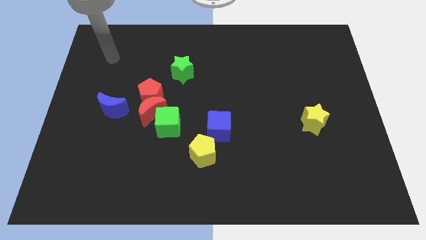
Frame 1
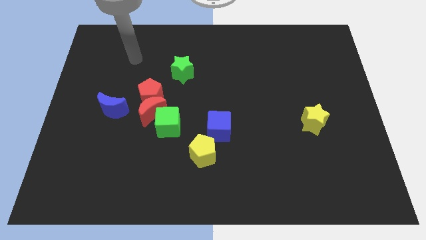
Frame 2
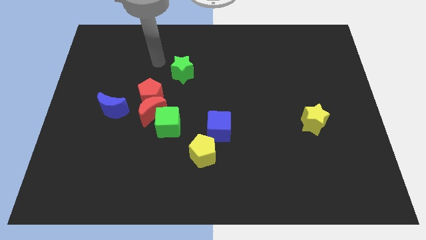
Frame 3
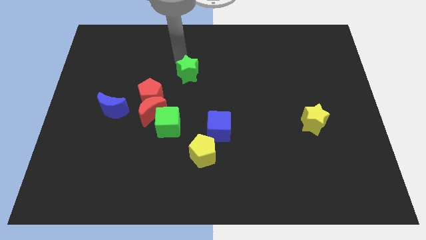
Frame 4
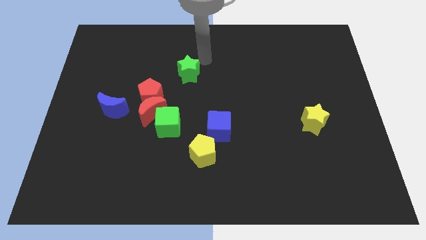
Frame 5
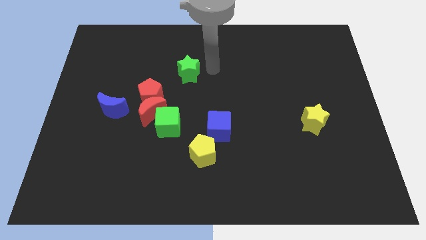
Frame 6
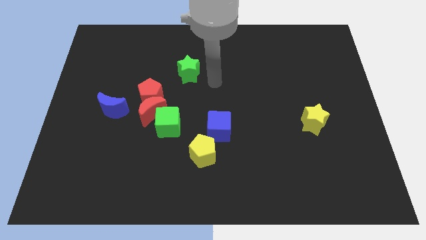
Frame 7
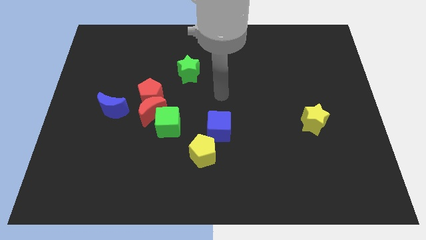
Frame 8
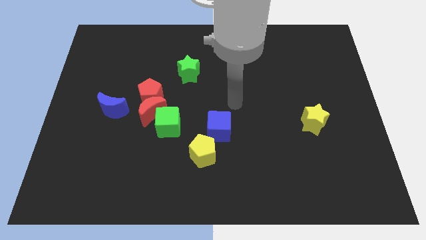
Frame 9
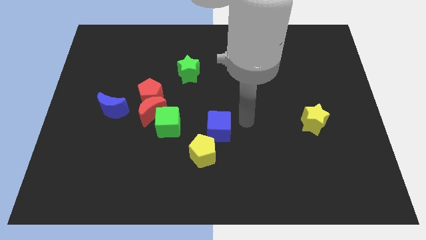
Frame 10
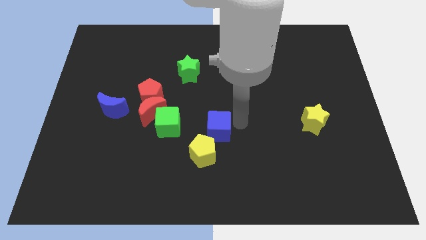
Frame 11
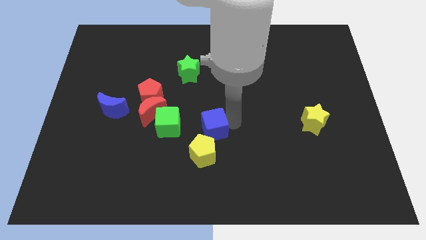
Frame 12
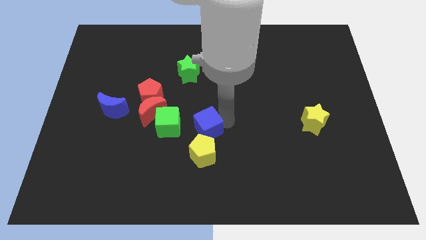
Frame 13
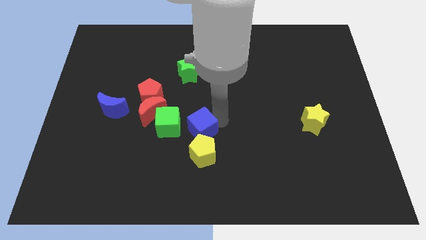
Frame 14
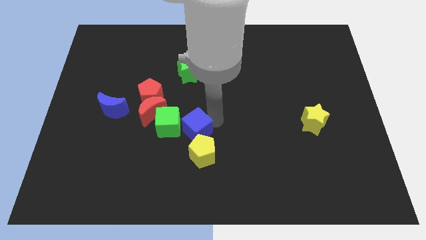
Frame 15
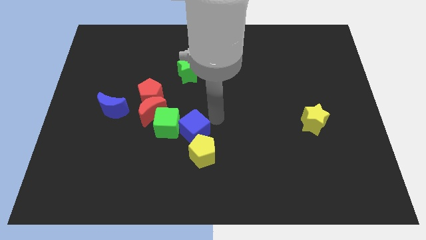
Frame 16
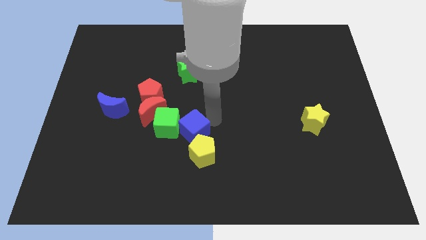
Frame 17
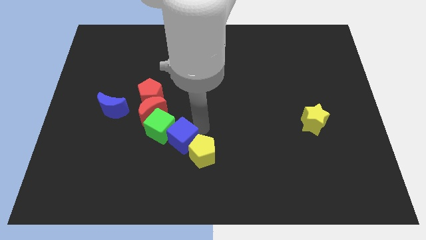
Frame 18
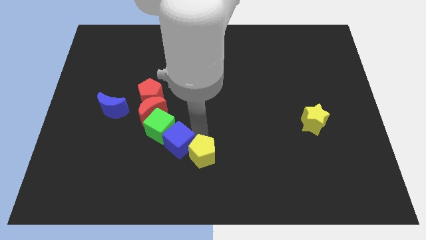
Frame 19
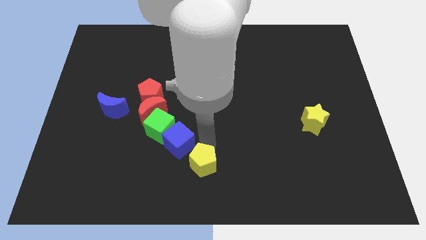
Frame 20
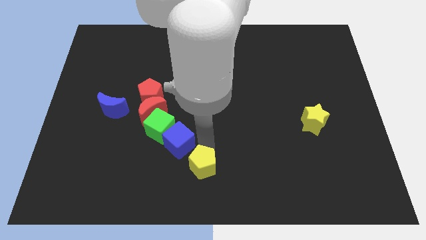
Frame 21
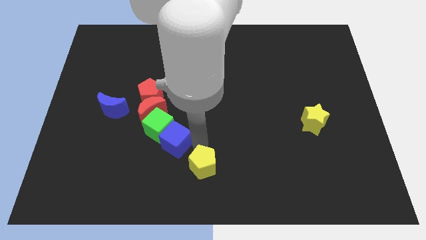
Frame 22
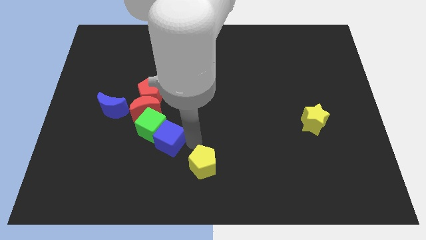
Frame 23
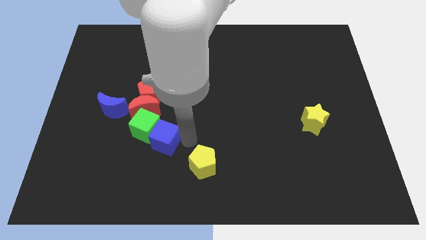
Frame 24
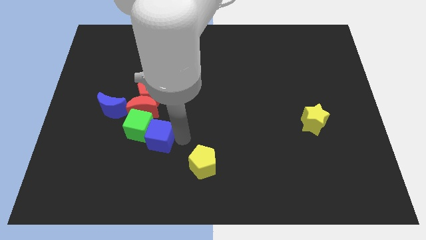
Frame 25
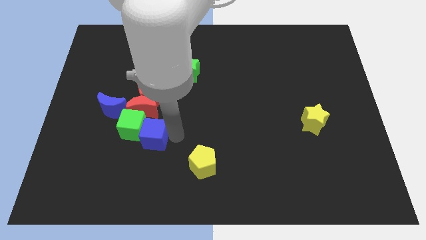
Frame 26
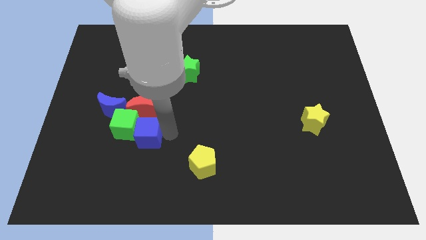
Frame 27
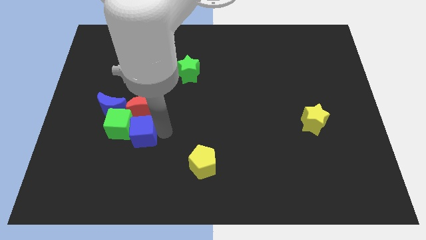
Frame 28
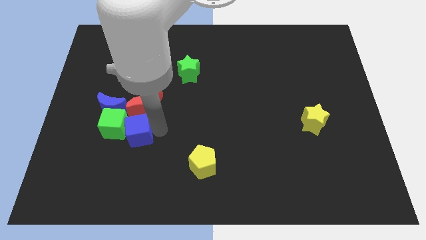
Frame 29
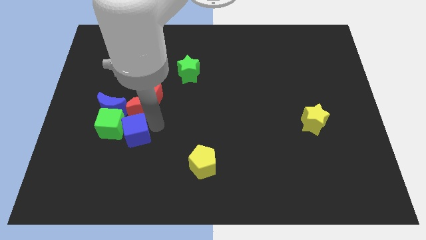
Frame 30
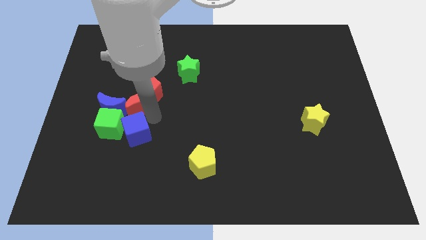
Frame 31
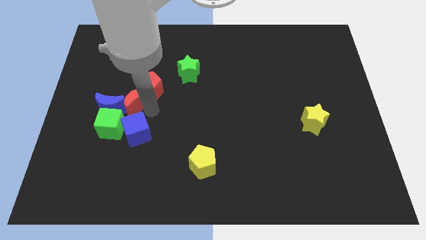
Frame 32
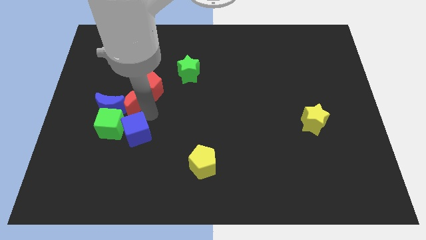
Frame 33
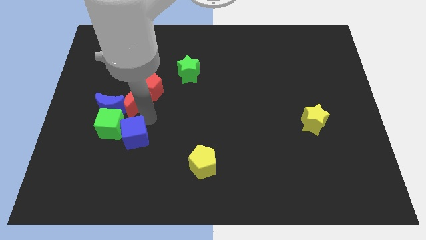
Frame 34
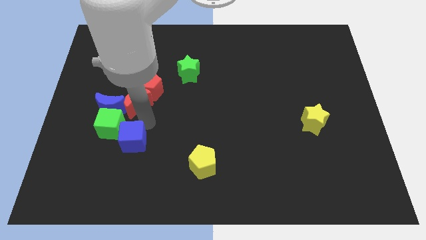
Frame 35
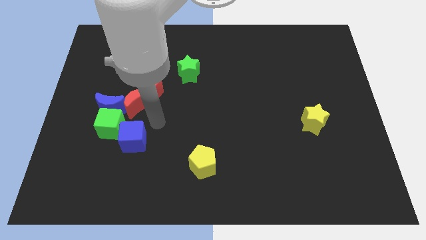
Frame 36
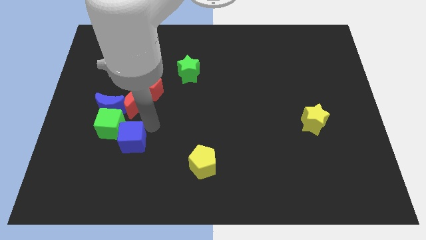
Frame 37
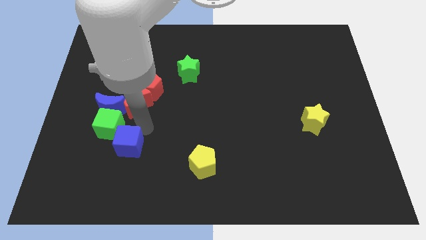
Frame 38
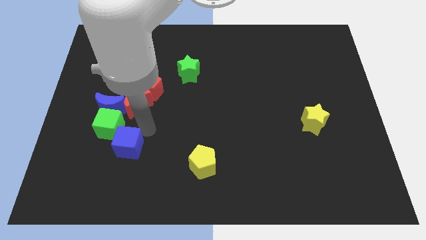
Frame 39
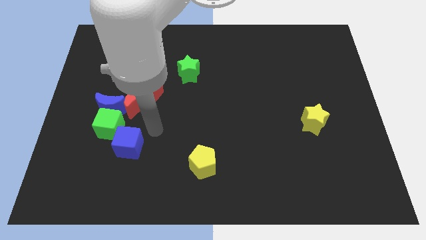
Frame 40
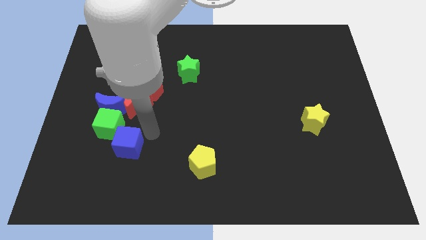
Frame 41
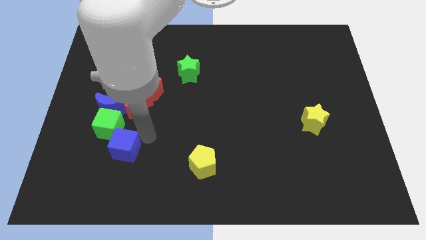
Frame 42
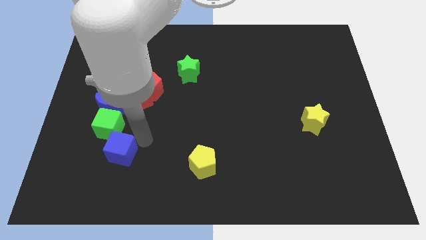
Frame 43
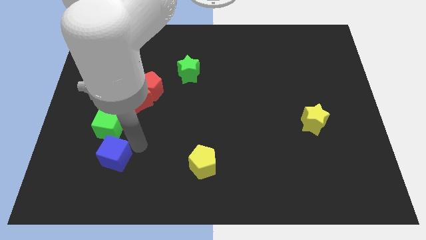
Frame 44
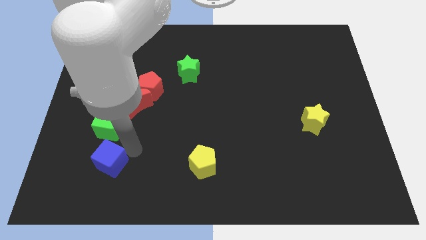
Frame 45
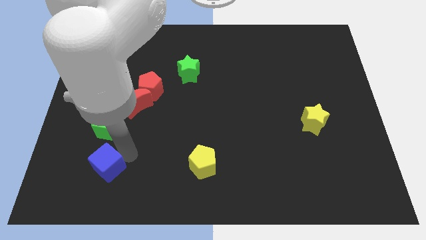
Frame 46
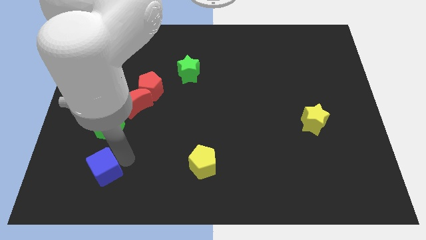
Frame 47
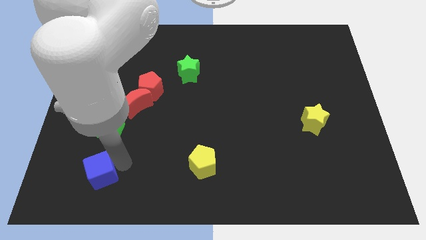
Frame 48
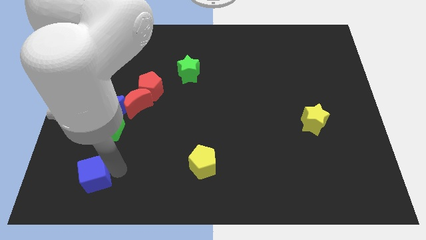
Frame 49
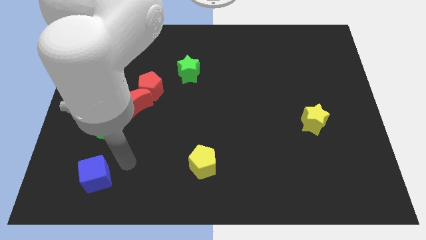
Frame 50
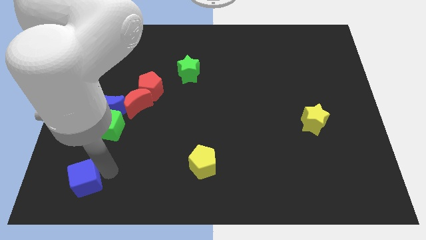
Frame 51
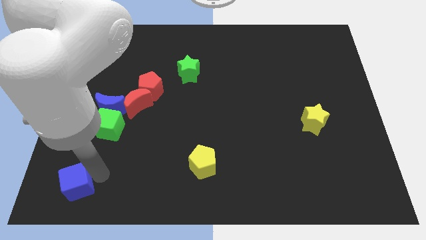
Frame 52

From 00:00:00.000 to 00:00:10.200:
slide the blue cube to the lower left corner
